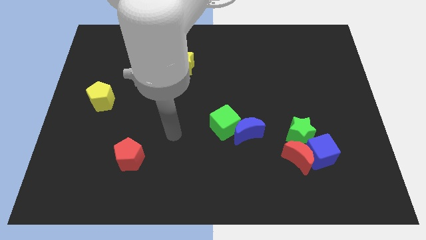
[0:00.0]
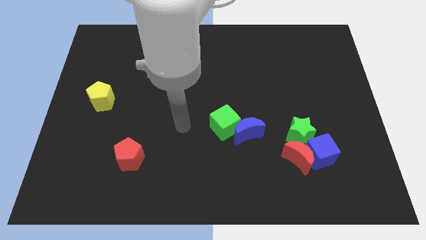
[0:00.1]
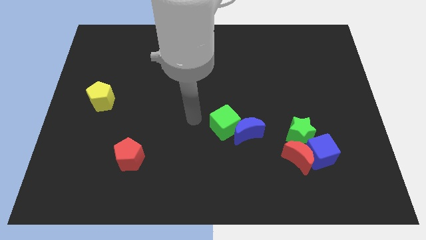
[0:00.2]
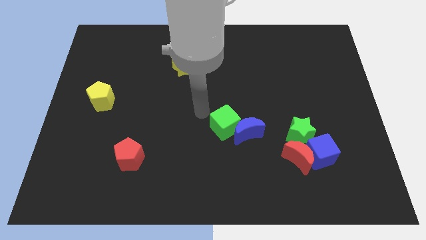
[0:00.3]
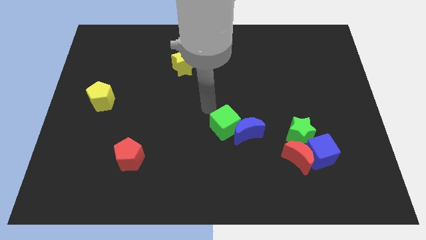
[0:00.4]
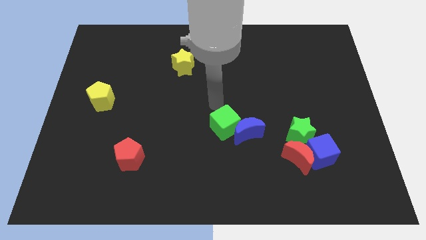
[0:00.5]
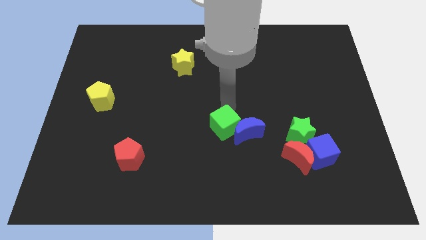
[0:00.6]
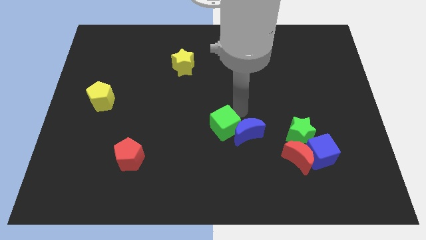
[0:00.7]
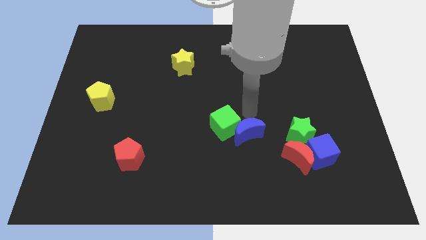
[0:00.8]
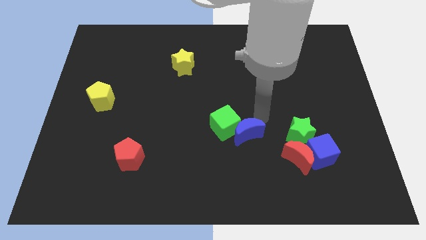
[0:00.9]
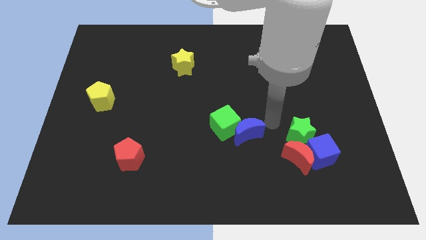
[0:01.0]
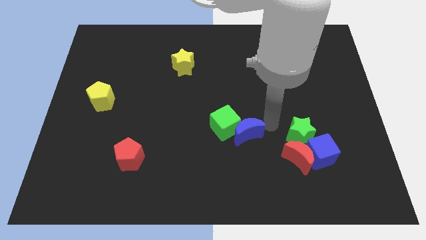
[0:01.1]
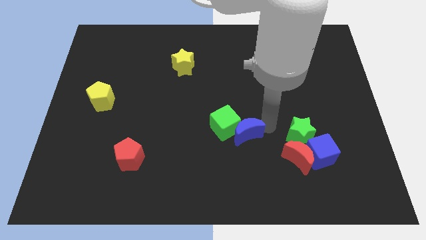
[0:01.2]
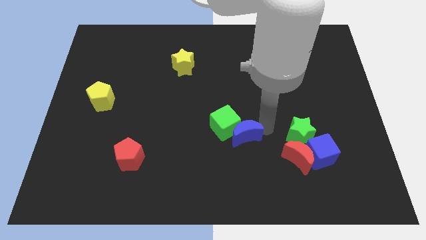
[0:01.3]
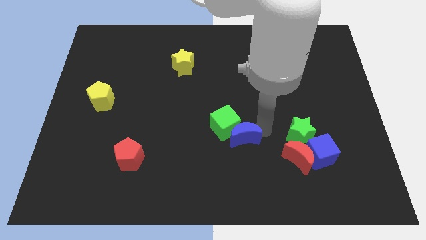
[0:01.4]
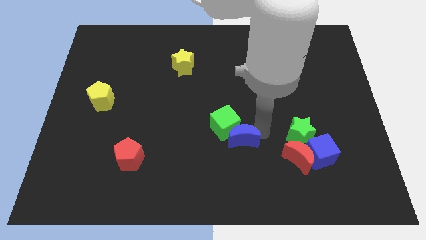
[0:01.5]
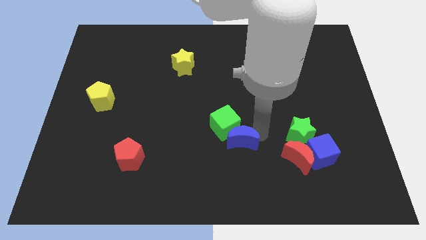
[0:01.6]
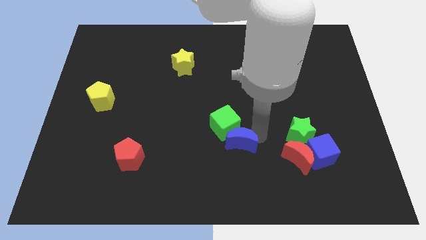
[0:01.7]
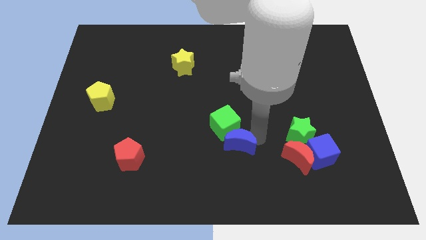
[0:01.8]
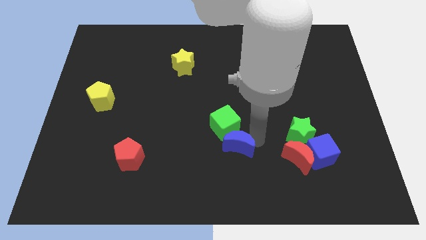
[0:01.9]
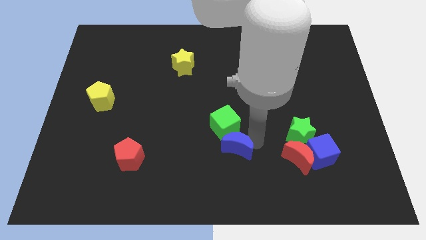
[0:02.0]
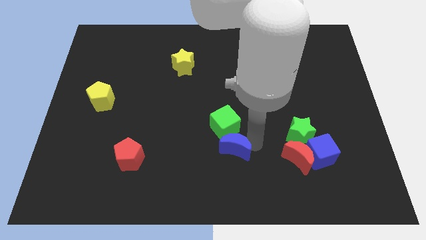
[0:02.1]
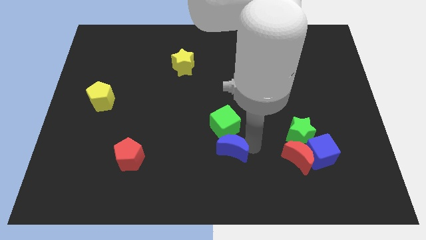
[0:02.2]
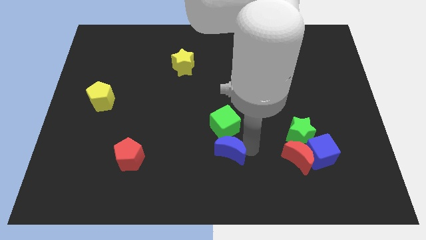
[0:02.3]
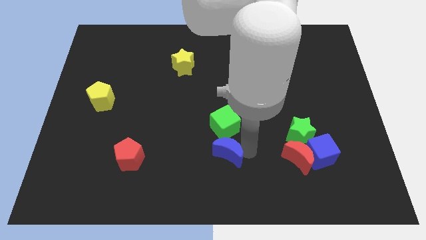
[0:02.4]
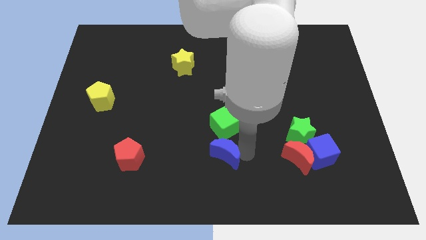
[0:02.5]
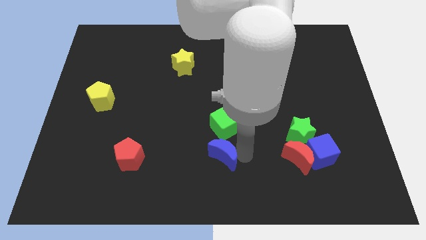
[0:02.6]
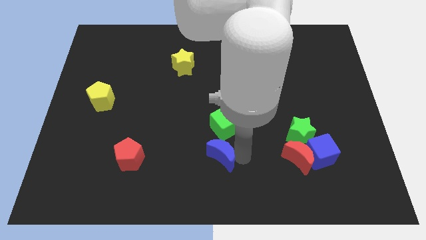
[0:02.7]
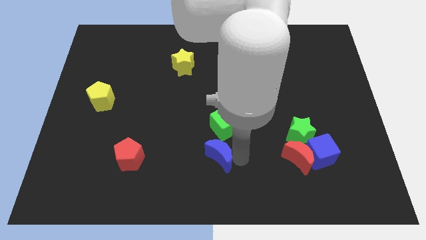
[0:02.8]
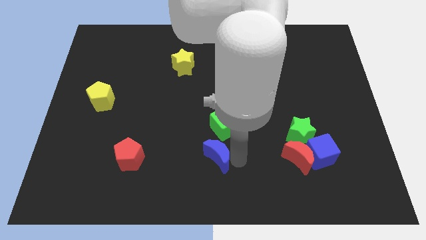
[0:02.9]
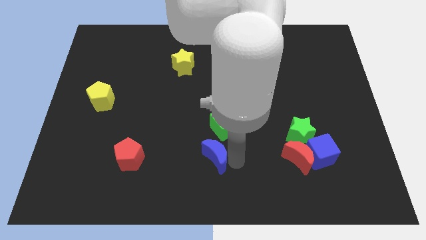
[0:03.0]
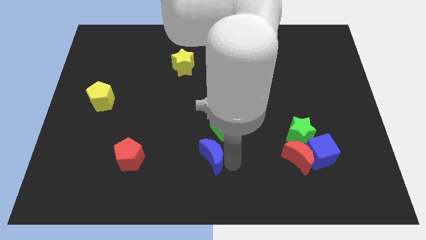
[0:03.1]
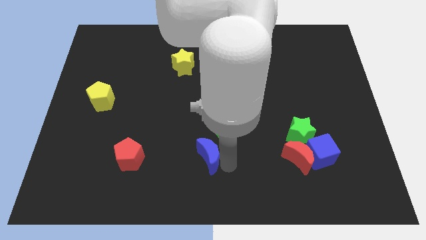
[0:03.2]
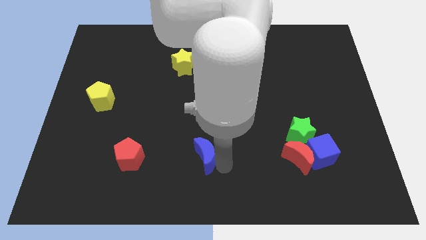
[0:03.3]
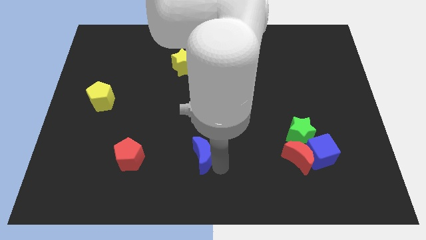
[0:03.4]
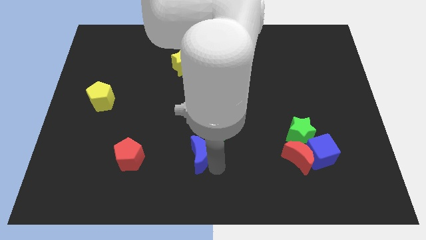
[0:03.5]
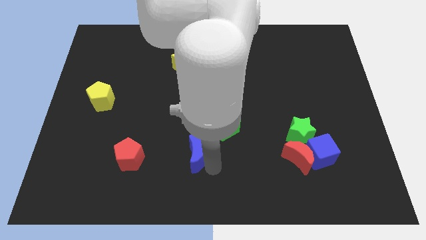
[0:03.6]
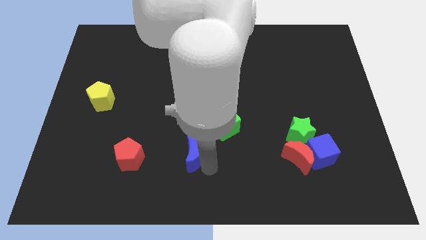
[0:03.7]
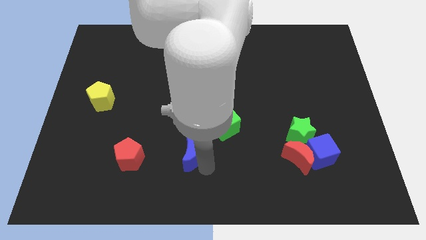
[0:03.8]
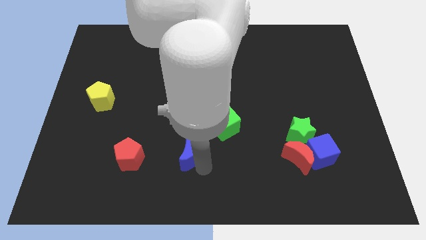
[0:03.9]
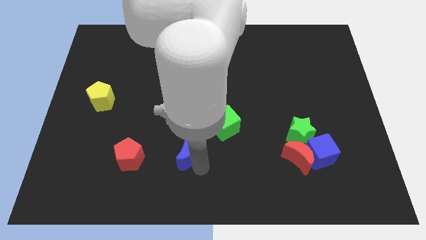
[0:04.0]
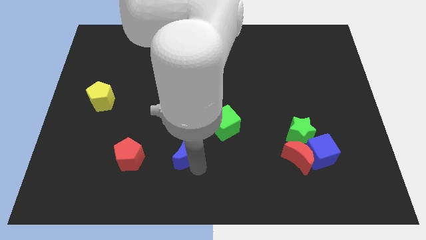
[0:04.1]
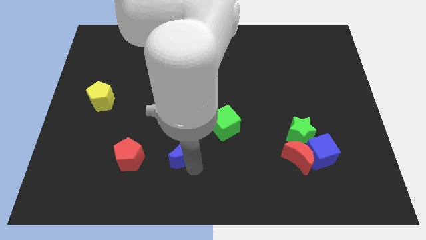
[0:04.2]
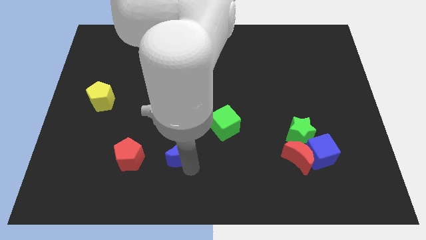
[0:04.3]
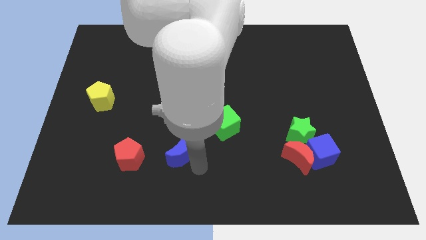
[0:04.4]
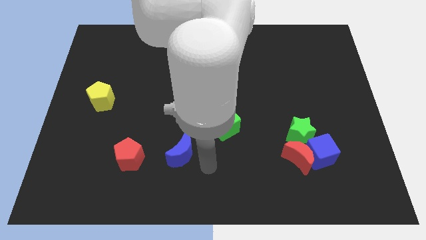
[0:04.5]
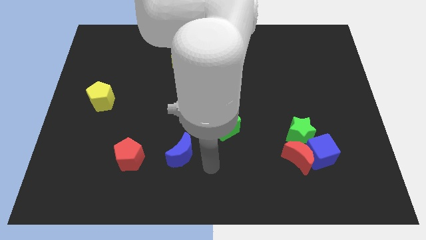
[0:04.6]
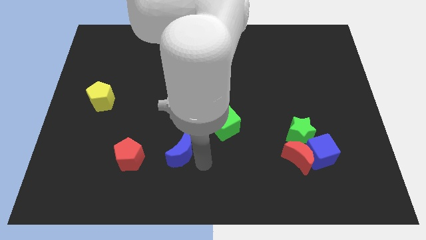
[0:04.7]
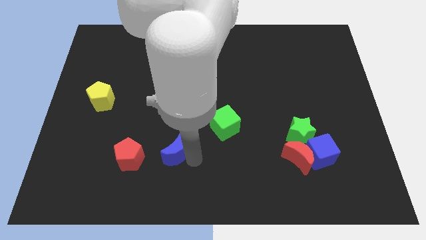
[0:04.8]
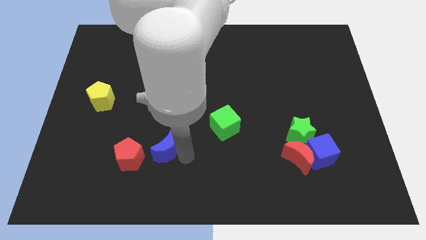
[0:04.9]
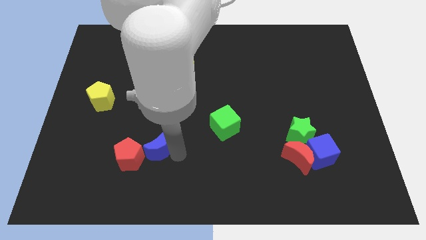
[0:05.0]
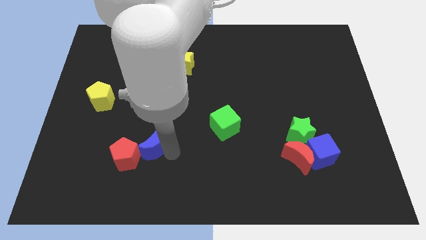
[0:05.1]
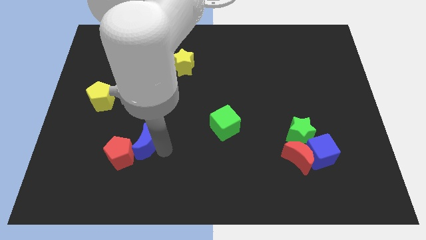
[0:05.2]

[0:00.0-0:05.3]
push the blue moon to the left

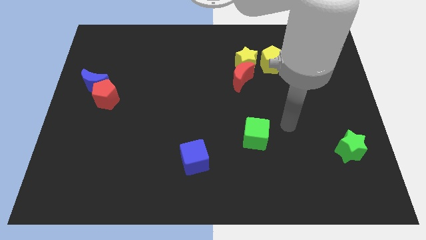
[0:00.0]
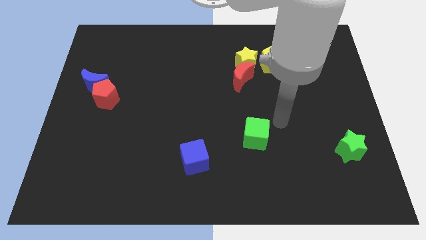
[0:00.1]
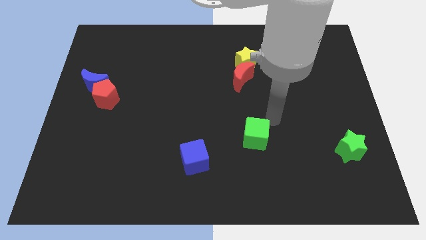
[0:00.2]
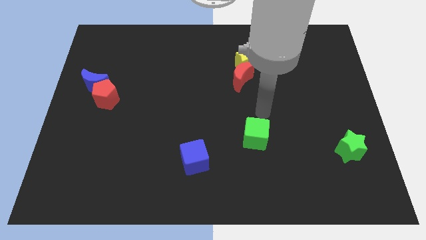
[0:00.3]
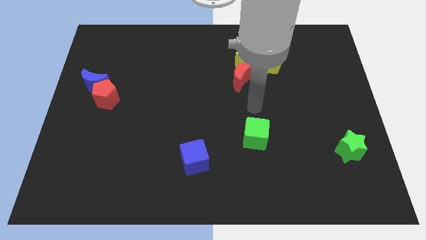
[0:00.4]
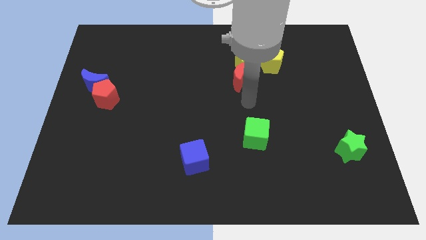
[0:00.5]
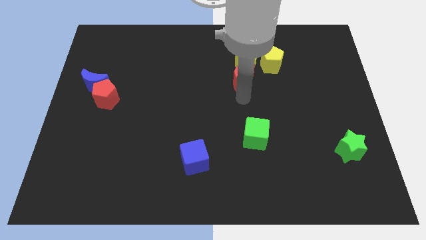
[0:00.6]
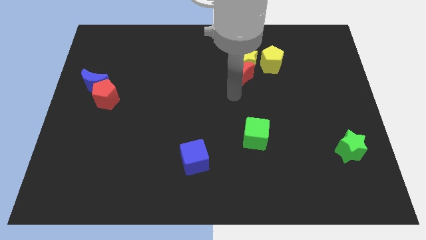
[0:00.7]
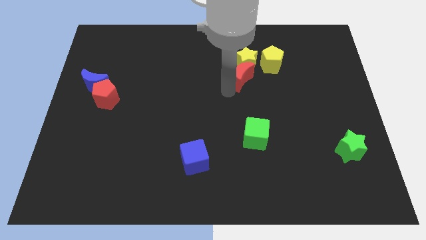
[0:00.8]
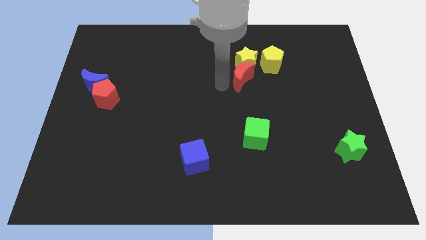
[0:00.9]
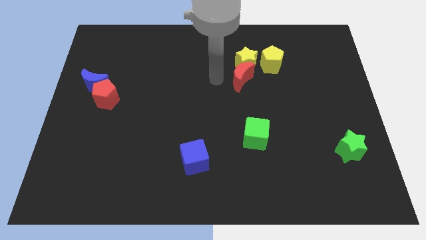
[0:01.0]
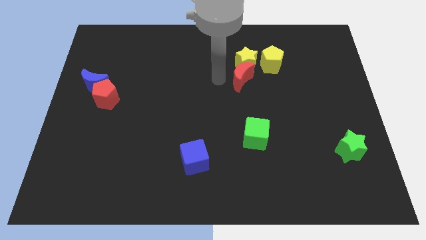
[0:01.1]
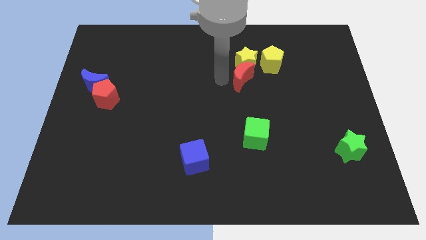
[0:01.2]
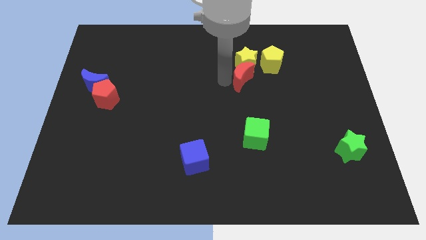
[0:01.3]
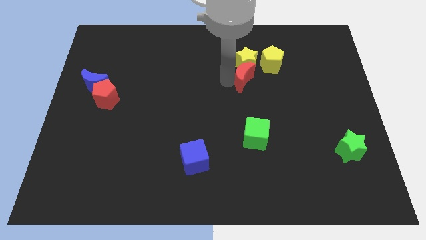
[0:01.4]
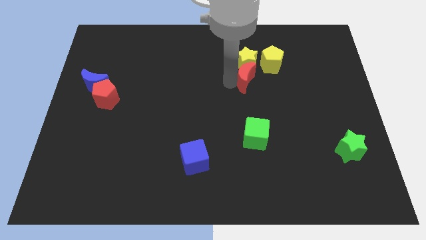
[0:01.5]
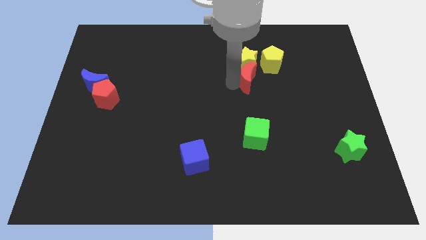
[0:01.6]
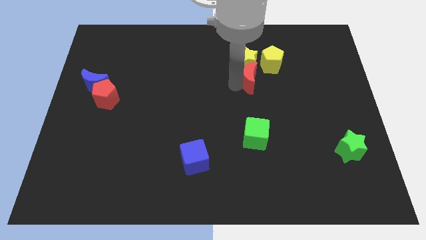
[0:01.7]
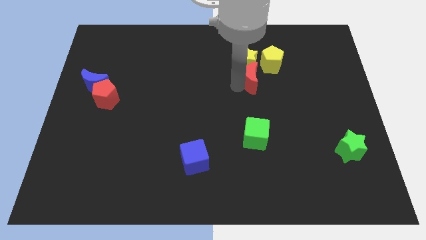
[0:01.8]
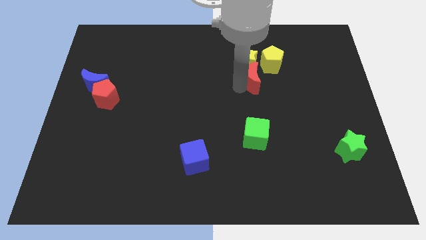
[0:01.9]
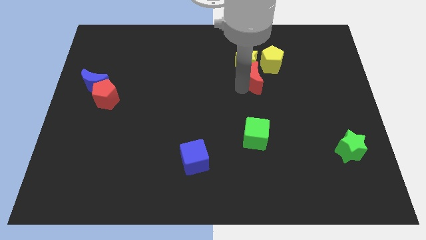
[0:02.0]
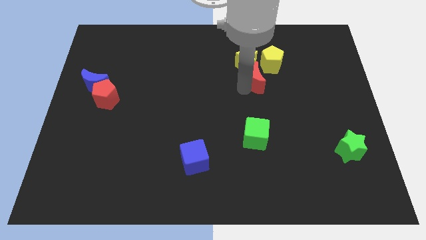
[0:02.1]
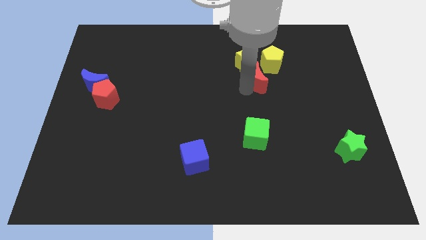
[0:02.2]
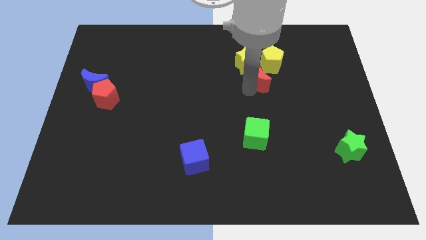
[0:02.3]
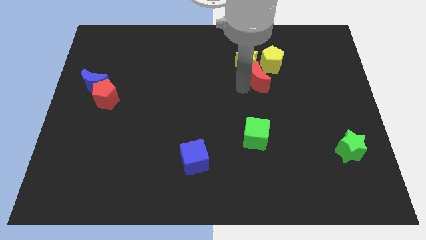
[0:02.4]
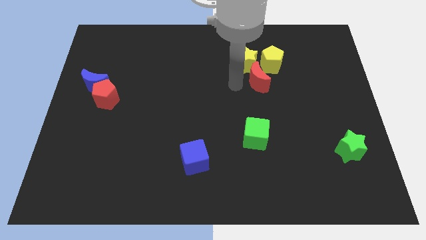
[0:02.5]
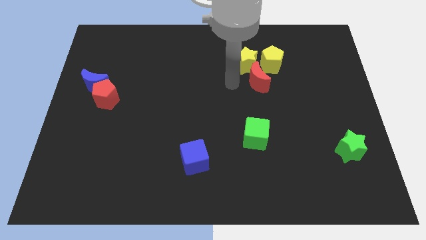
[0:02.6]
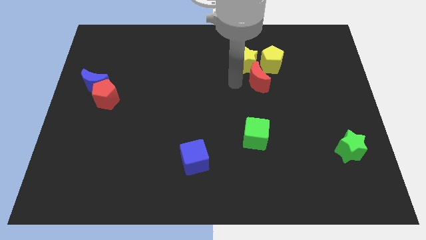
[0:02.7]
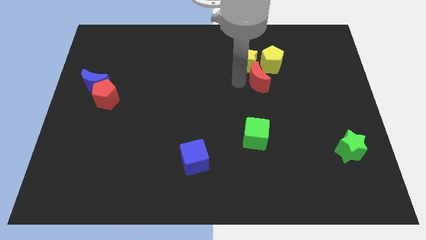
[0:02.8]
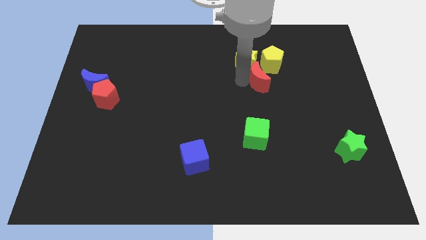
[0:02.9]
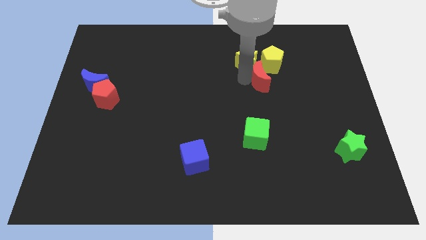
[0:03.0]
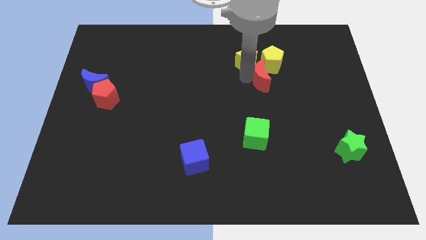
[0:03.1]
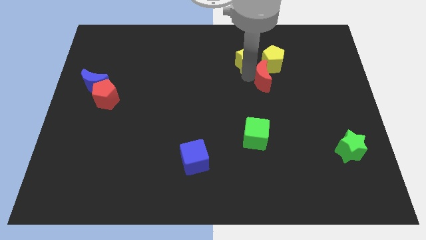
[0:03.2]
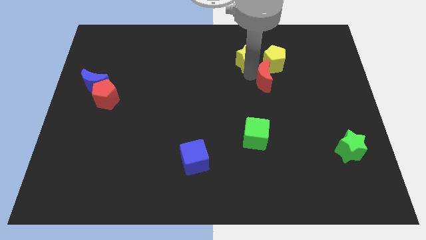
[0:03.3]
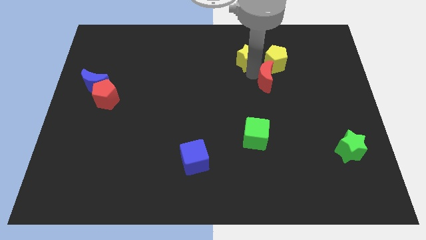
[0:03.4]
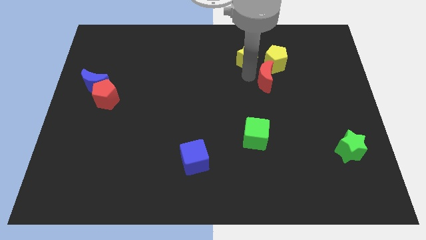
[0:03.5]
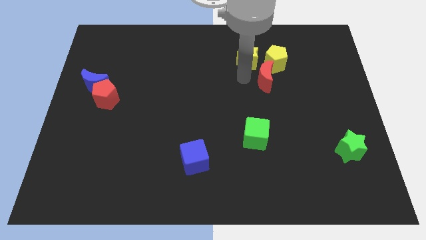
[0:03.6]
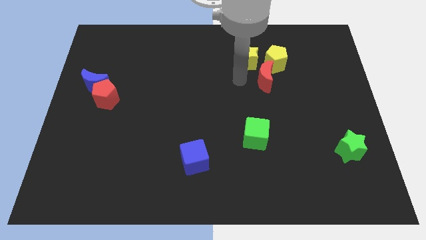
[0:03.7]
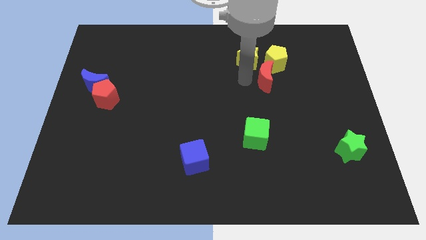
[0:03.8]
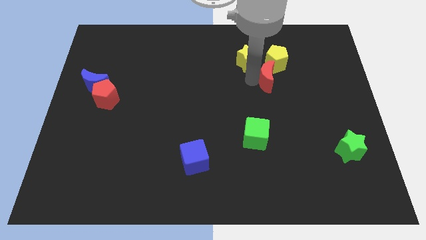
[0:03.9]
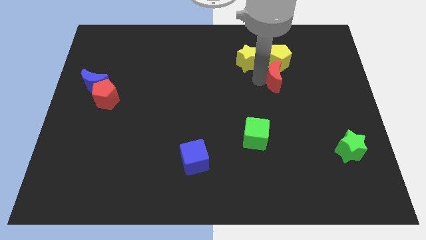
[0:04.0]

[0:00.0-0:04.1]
move the red moon right slightly
